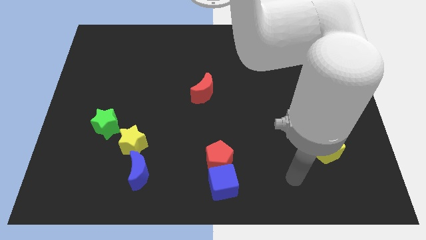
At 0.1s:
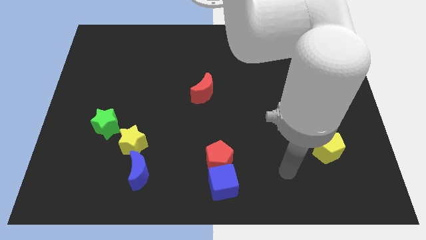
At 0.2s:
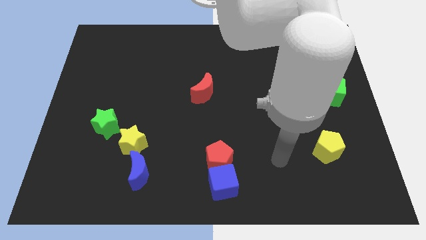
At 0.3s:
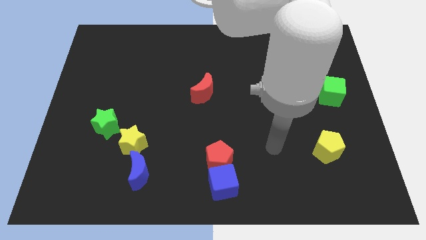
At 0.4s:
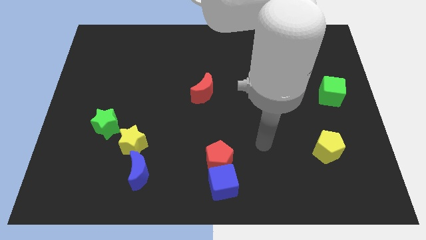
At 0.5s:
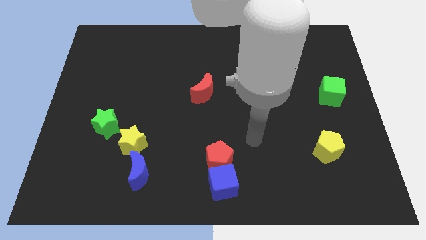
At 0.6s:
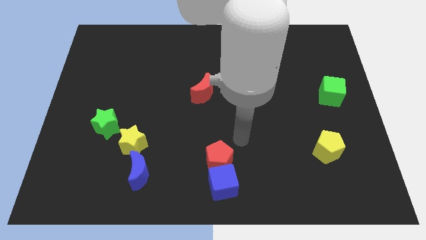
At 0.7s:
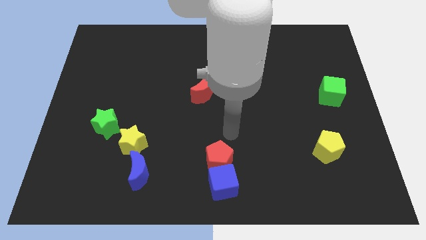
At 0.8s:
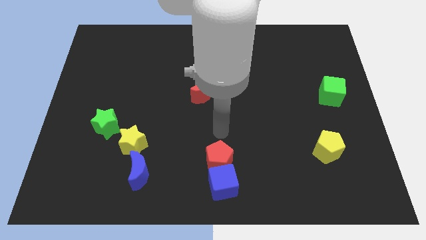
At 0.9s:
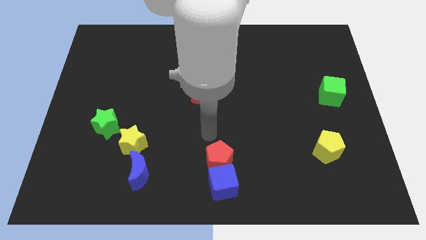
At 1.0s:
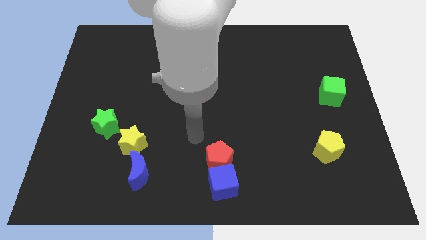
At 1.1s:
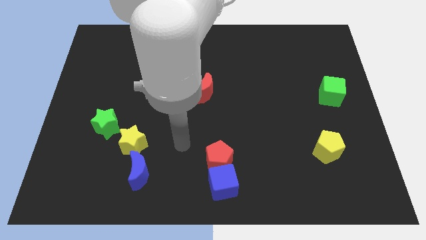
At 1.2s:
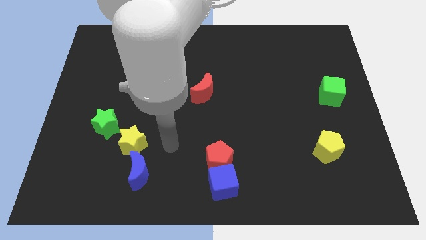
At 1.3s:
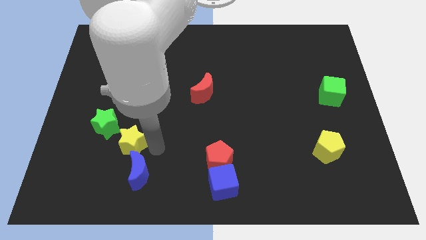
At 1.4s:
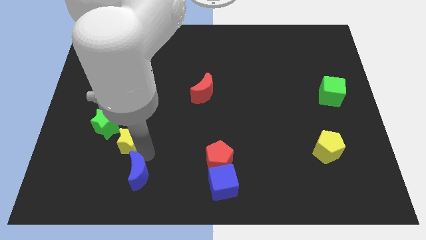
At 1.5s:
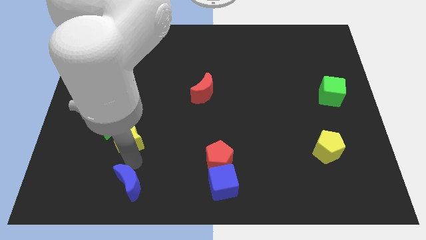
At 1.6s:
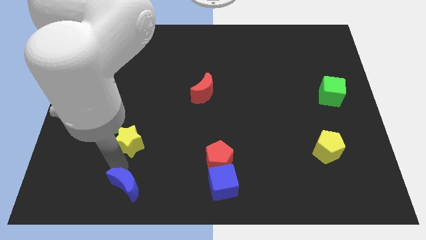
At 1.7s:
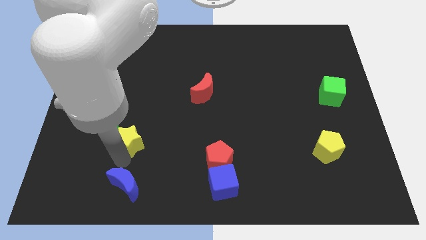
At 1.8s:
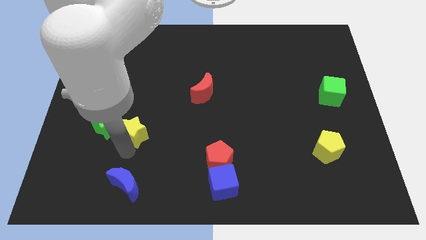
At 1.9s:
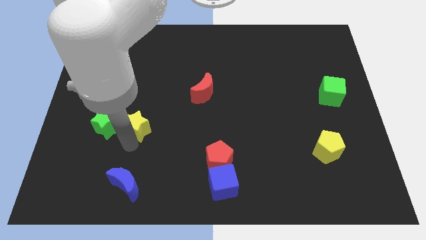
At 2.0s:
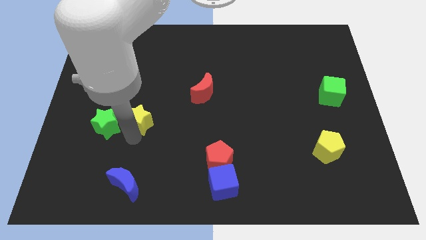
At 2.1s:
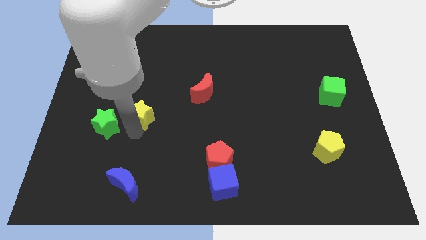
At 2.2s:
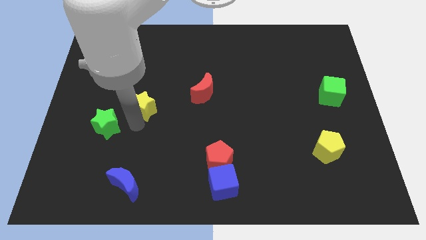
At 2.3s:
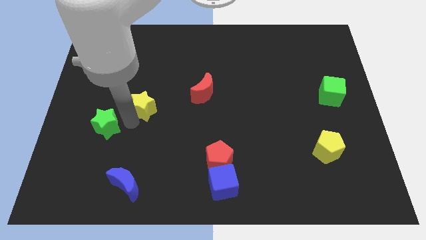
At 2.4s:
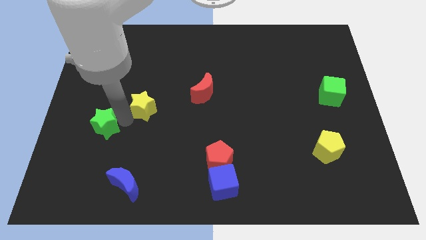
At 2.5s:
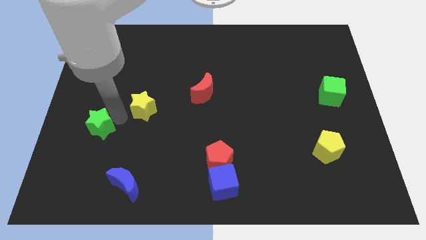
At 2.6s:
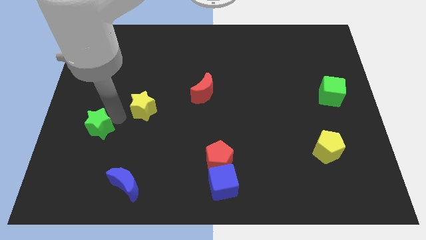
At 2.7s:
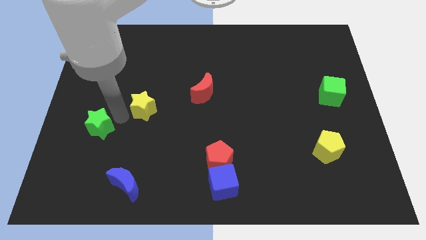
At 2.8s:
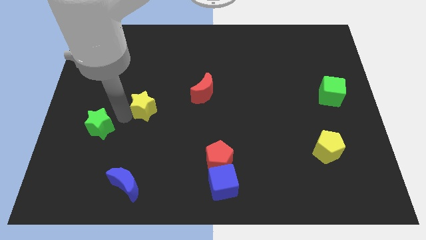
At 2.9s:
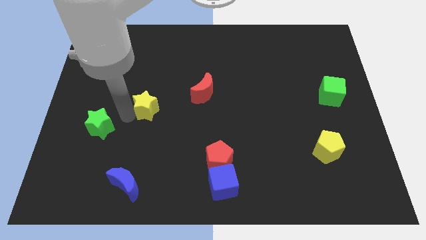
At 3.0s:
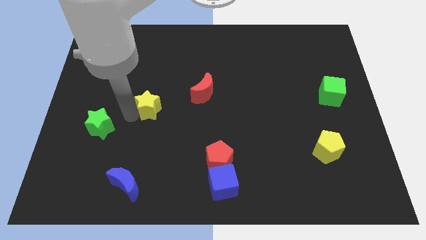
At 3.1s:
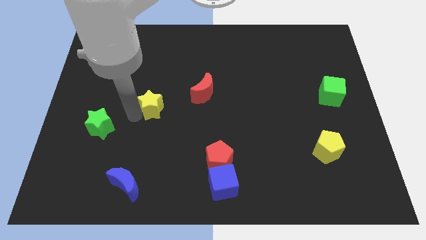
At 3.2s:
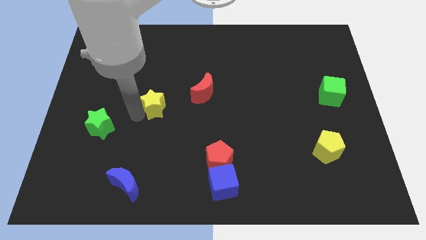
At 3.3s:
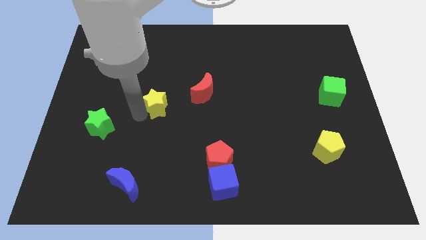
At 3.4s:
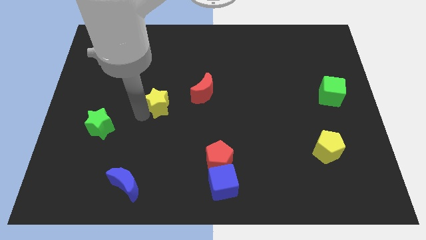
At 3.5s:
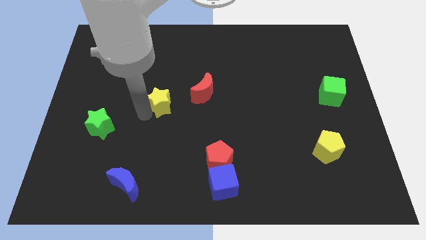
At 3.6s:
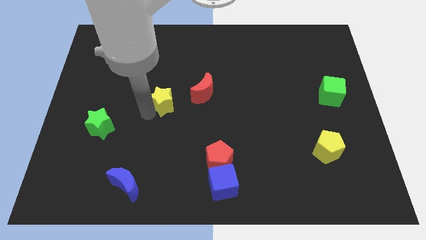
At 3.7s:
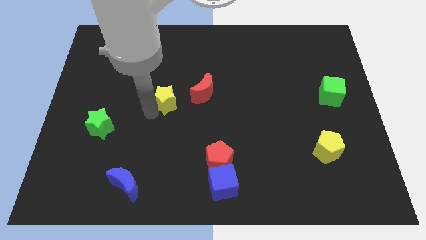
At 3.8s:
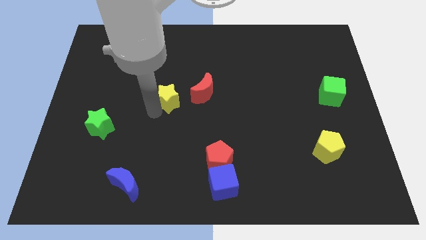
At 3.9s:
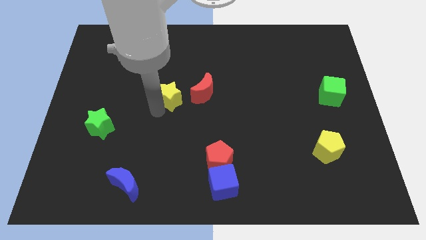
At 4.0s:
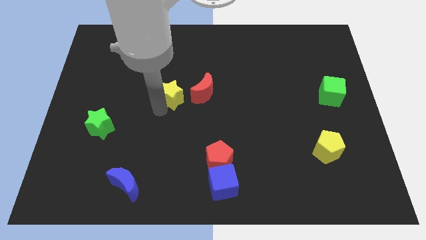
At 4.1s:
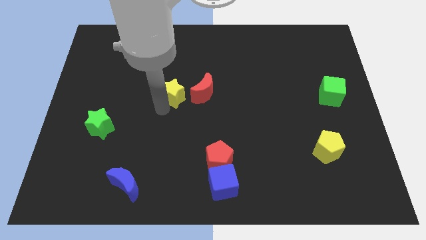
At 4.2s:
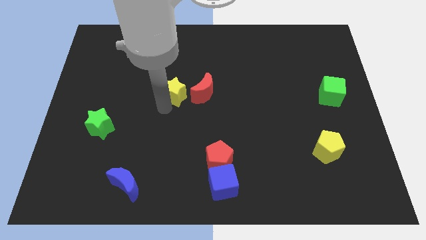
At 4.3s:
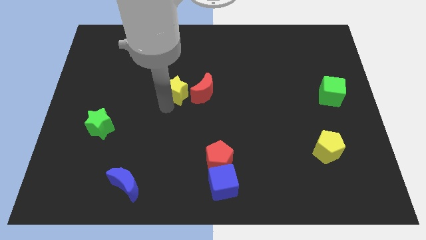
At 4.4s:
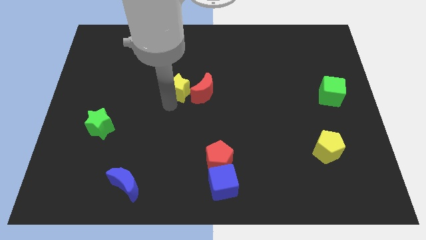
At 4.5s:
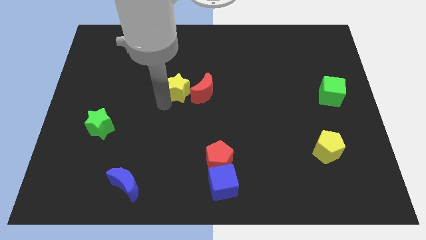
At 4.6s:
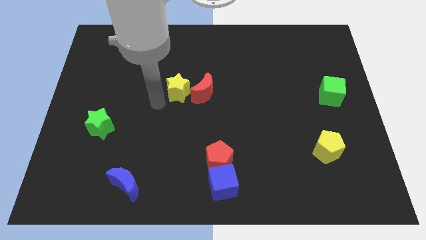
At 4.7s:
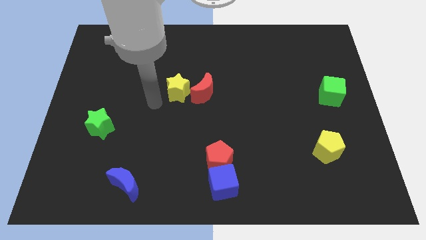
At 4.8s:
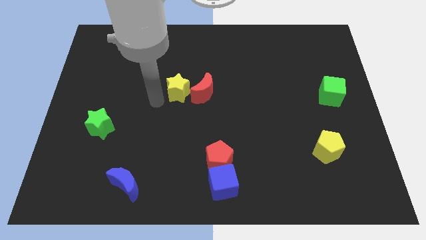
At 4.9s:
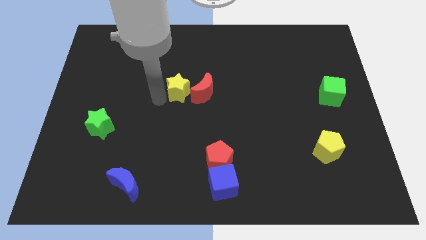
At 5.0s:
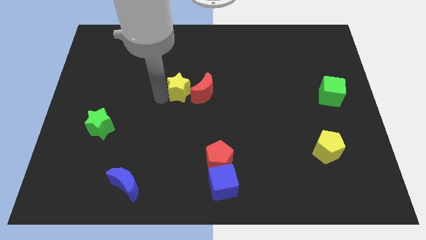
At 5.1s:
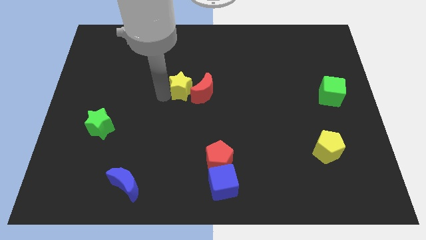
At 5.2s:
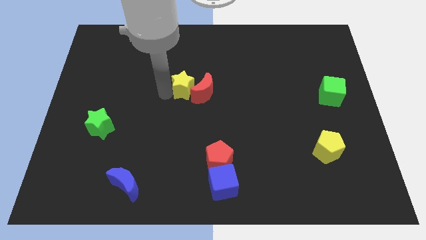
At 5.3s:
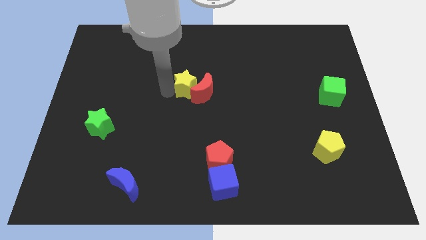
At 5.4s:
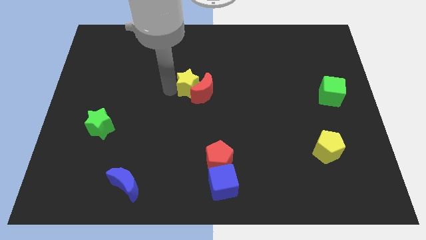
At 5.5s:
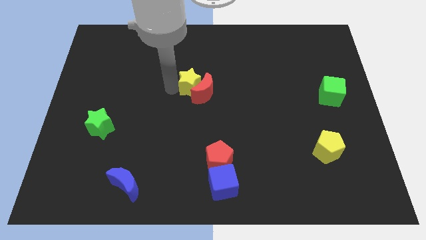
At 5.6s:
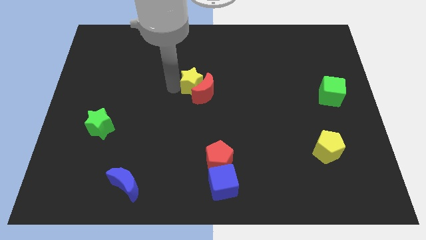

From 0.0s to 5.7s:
slide the yellow star up and right diagonally

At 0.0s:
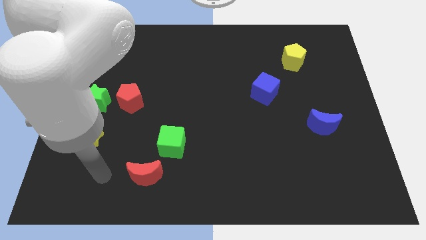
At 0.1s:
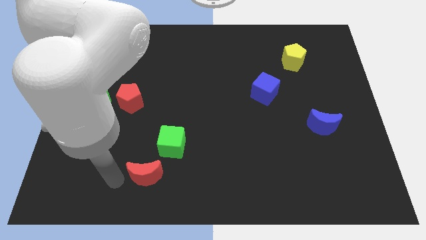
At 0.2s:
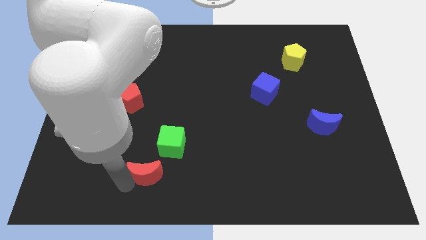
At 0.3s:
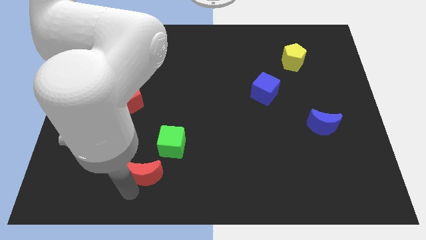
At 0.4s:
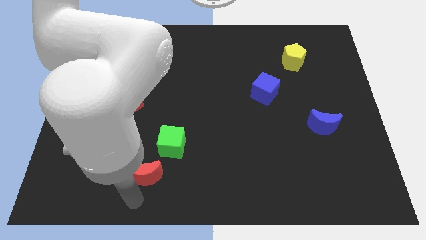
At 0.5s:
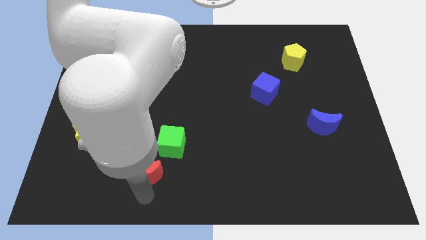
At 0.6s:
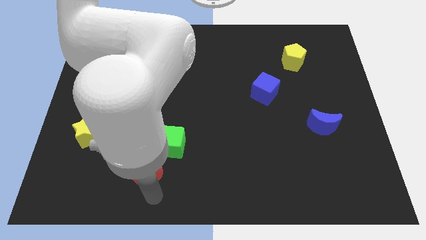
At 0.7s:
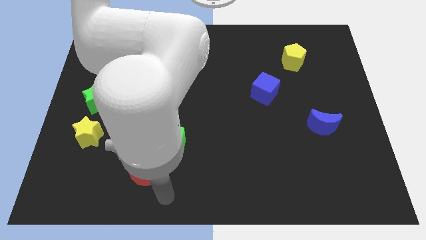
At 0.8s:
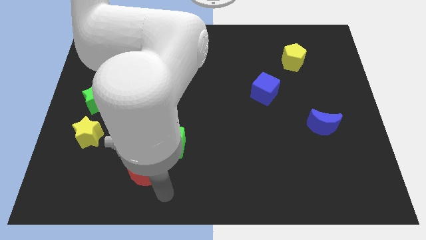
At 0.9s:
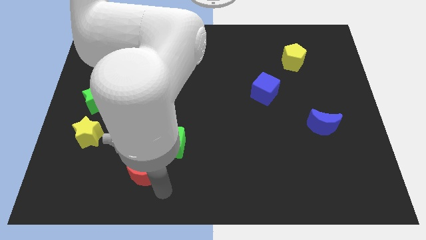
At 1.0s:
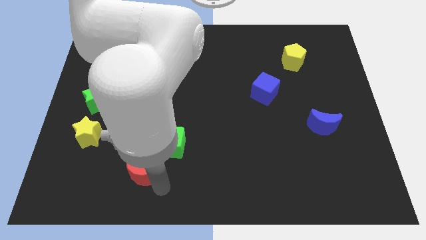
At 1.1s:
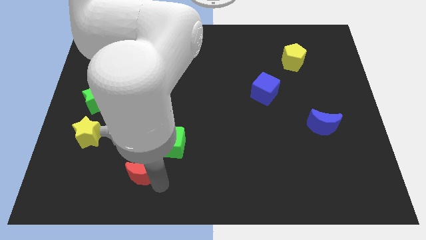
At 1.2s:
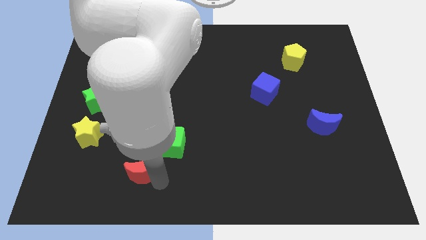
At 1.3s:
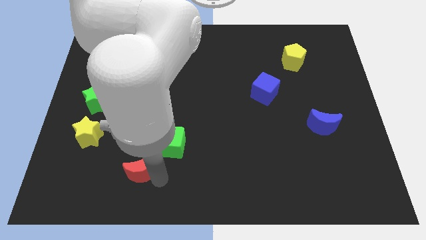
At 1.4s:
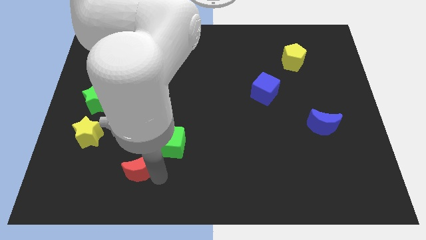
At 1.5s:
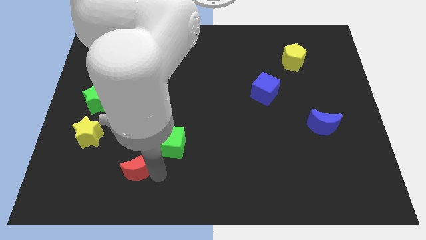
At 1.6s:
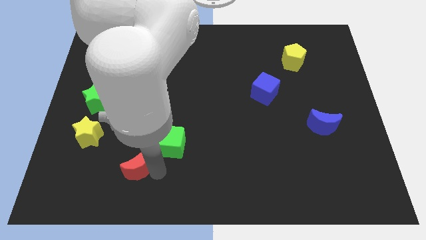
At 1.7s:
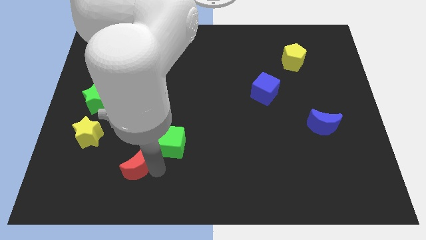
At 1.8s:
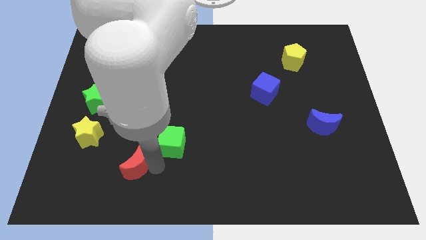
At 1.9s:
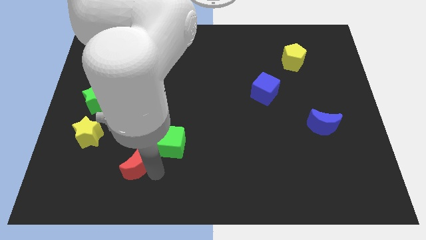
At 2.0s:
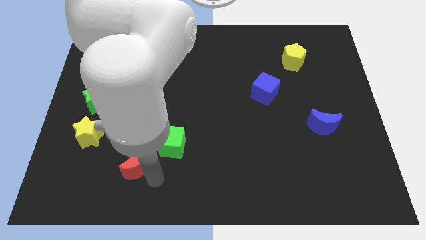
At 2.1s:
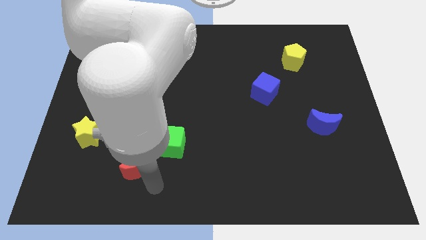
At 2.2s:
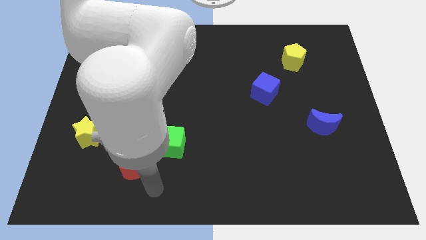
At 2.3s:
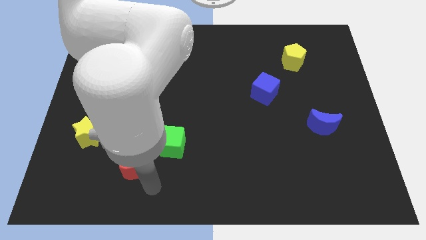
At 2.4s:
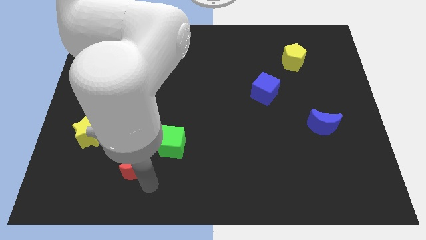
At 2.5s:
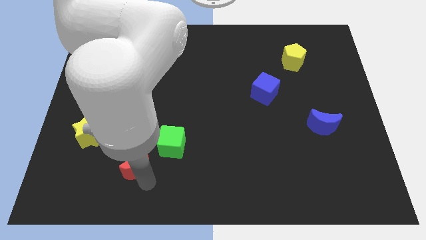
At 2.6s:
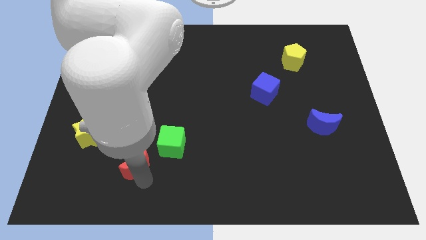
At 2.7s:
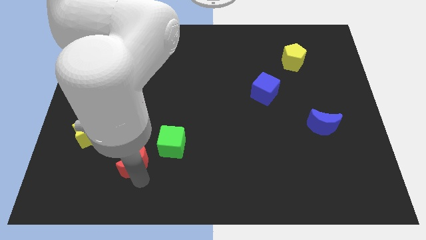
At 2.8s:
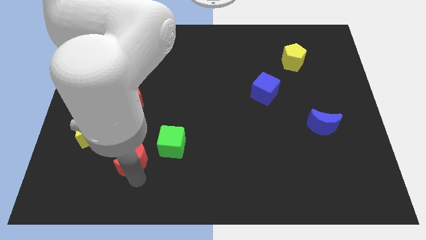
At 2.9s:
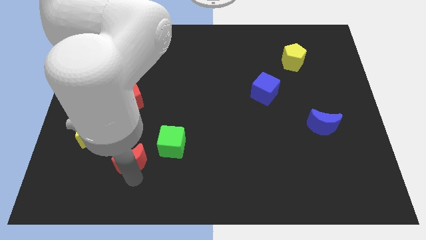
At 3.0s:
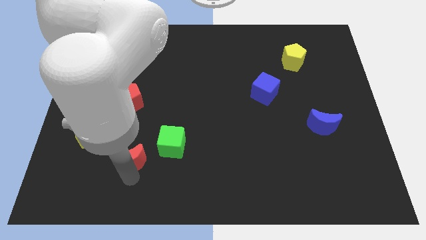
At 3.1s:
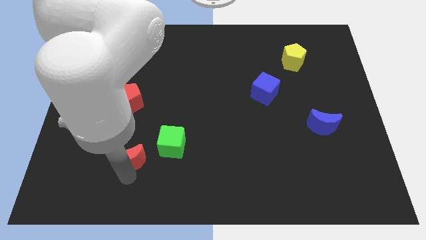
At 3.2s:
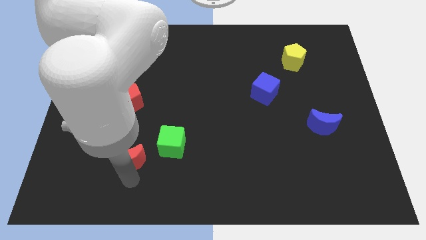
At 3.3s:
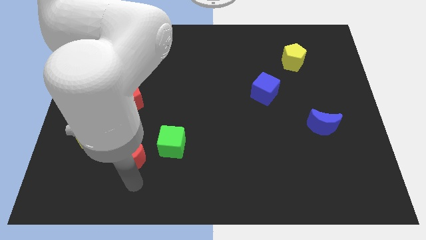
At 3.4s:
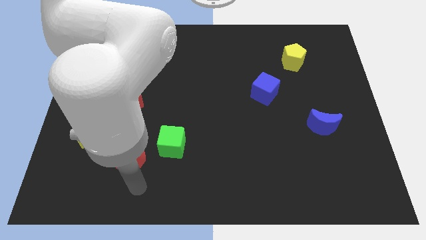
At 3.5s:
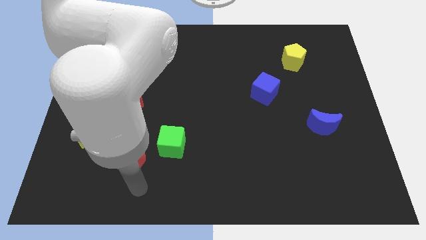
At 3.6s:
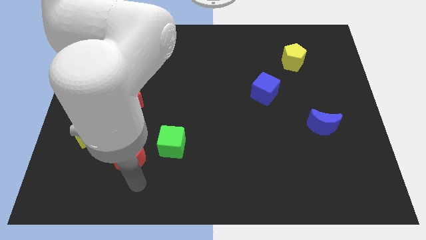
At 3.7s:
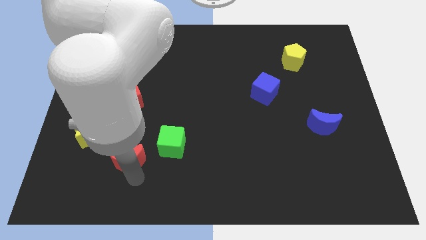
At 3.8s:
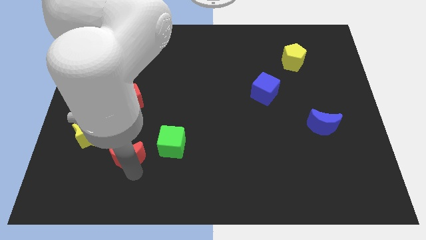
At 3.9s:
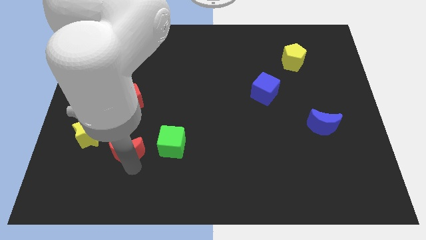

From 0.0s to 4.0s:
push the red moon up and to the left diagonally slightly
